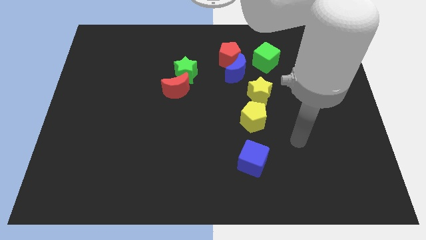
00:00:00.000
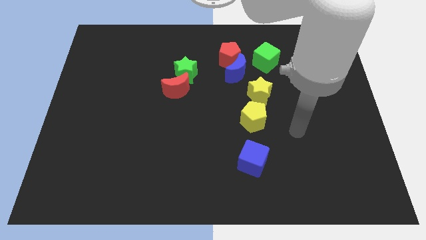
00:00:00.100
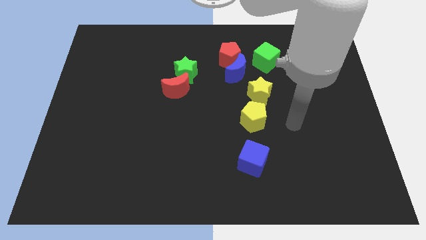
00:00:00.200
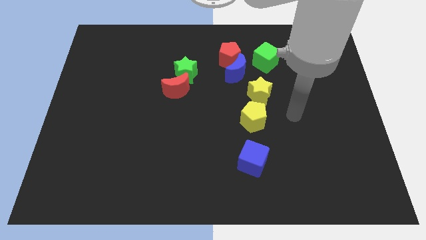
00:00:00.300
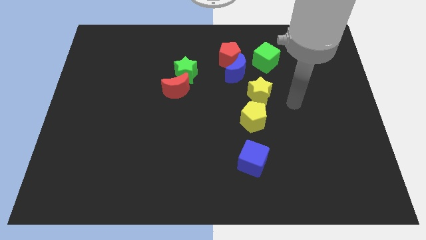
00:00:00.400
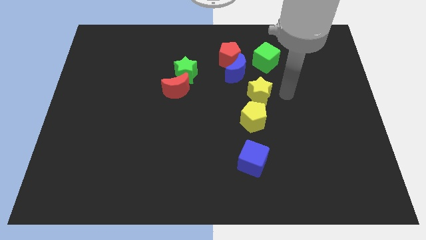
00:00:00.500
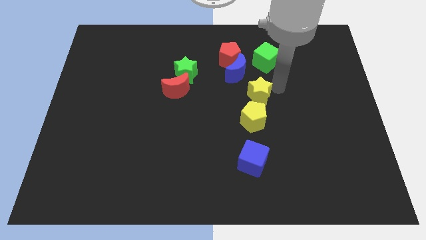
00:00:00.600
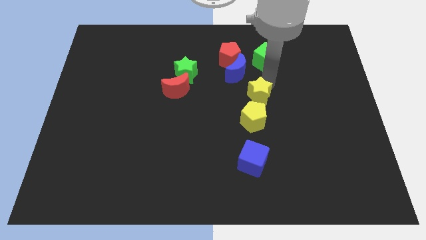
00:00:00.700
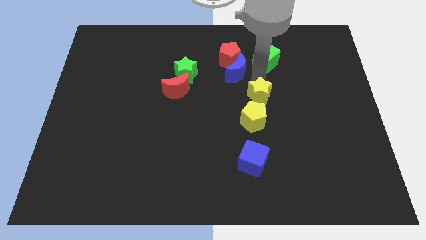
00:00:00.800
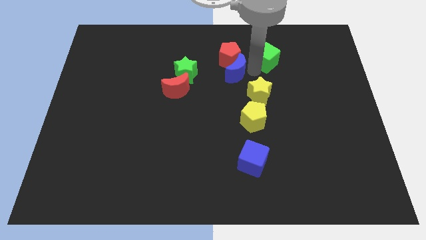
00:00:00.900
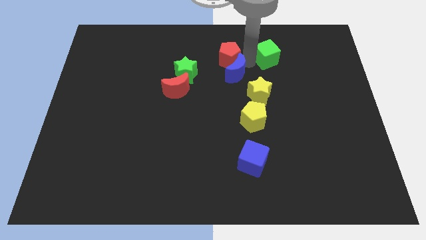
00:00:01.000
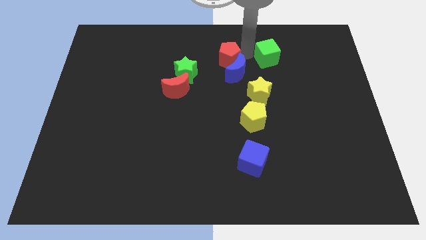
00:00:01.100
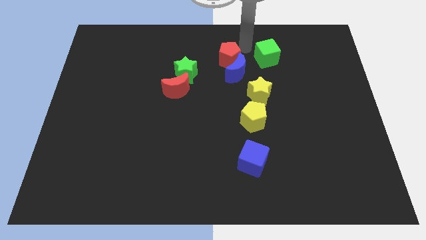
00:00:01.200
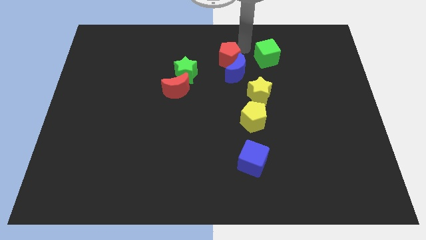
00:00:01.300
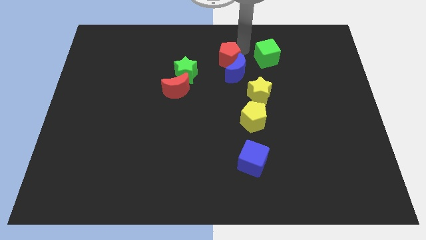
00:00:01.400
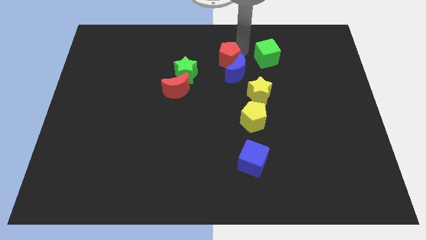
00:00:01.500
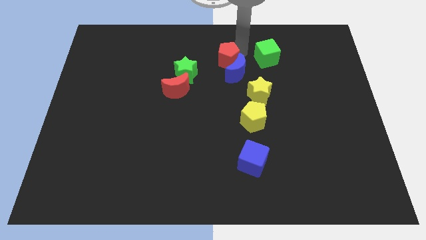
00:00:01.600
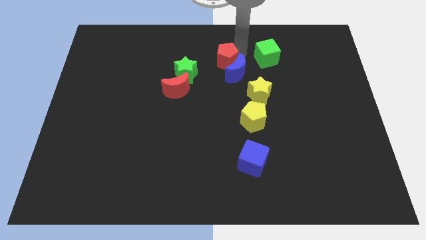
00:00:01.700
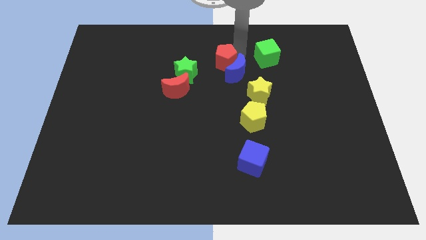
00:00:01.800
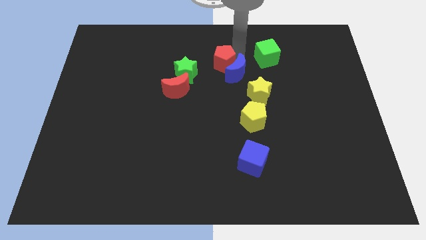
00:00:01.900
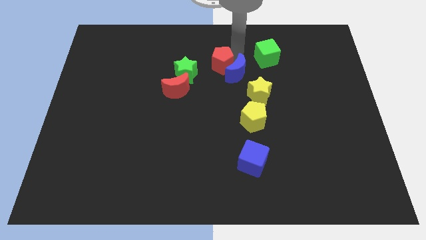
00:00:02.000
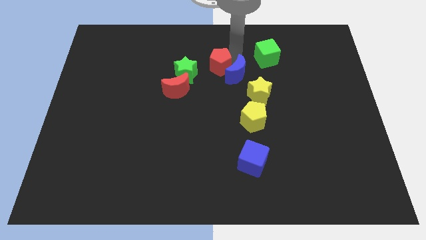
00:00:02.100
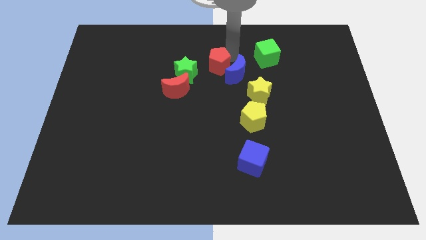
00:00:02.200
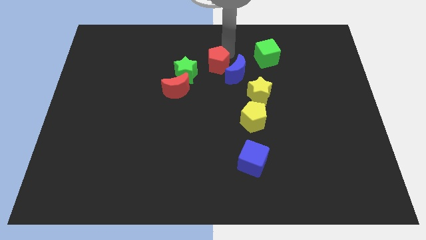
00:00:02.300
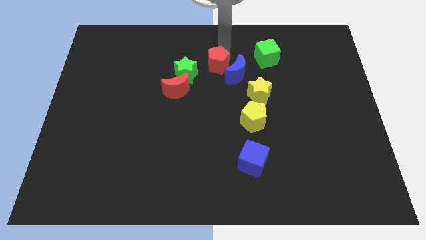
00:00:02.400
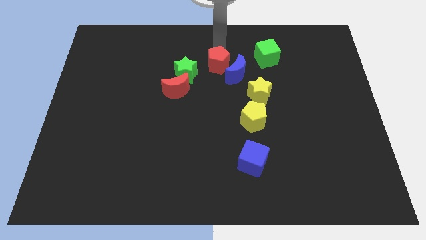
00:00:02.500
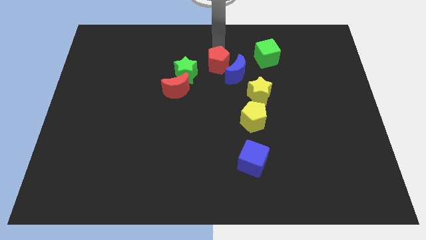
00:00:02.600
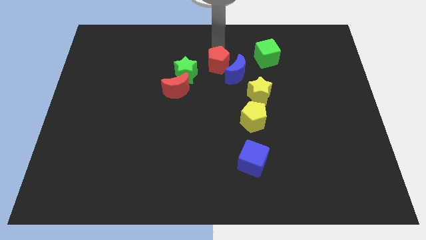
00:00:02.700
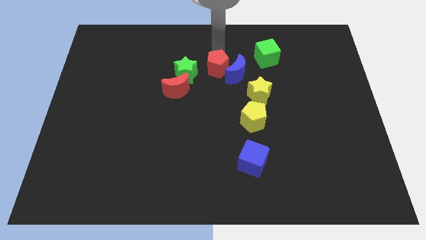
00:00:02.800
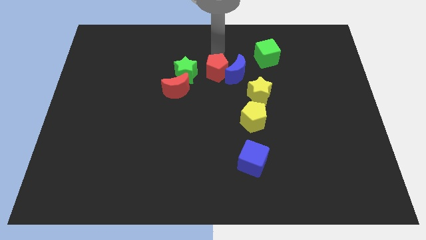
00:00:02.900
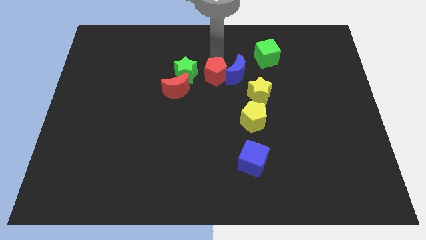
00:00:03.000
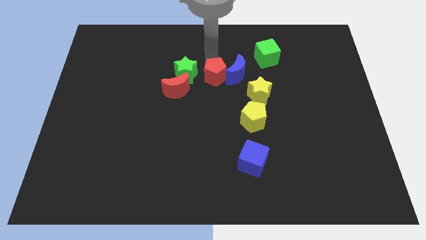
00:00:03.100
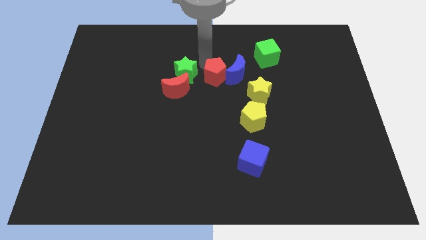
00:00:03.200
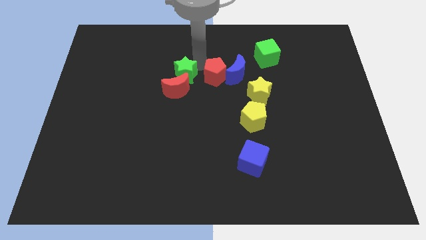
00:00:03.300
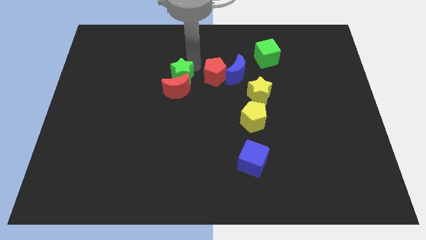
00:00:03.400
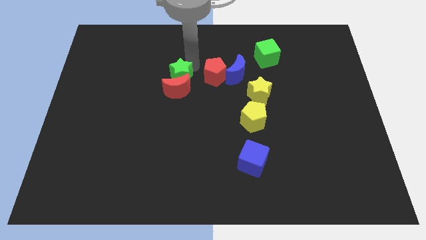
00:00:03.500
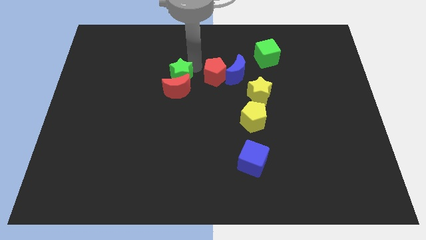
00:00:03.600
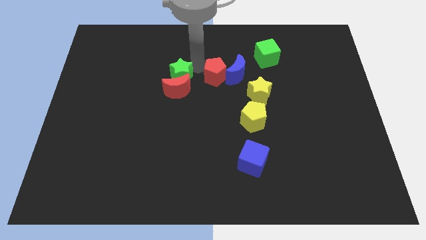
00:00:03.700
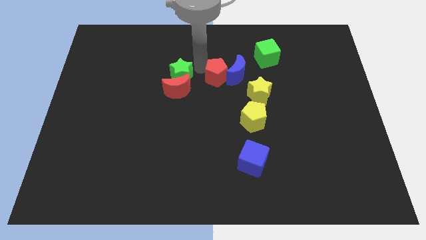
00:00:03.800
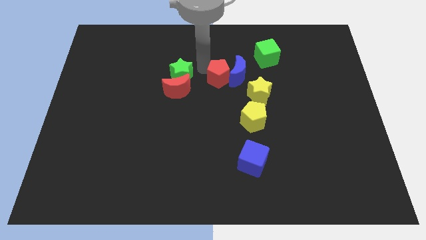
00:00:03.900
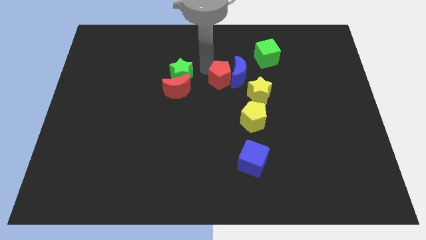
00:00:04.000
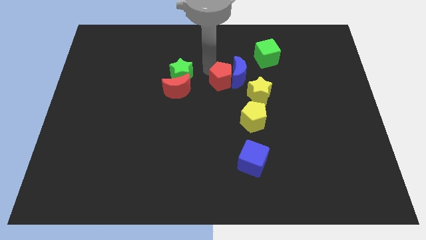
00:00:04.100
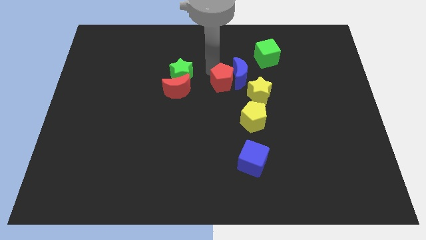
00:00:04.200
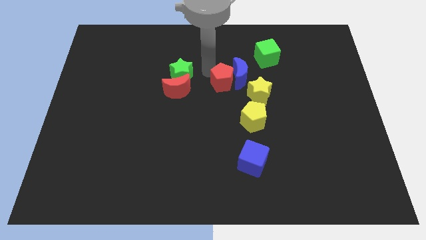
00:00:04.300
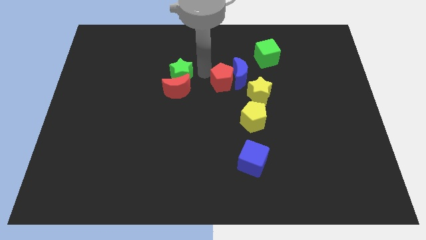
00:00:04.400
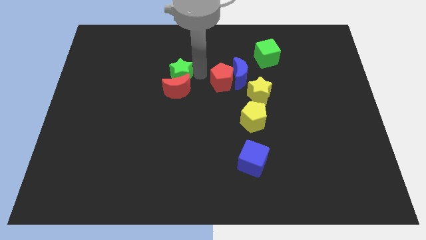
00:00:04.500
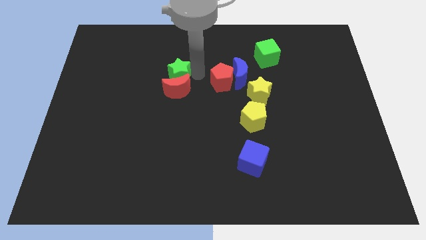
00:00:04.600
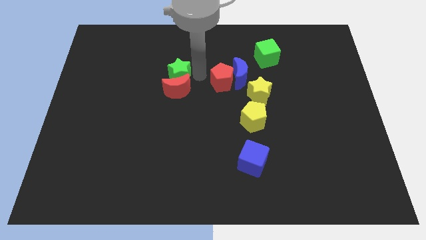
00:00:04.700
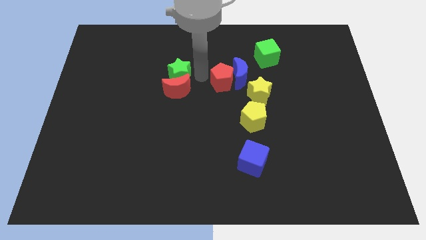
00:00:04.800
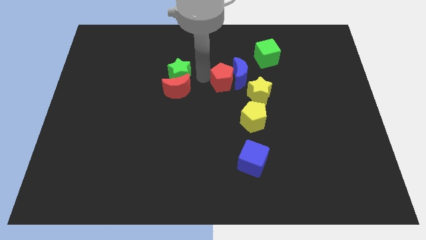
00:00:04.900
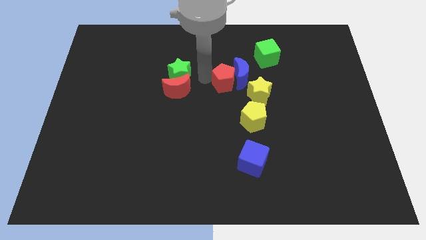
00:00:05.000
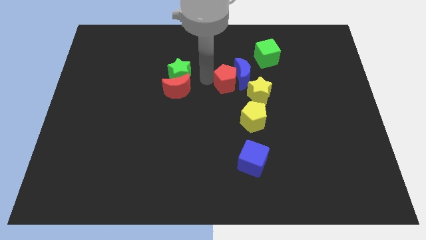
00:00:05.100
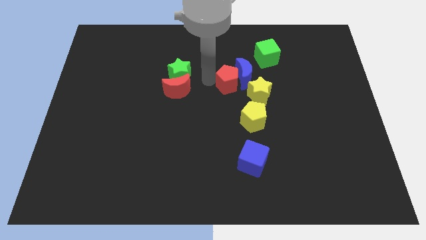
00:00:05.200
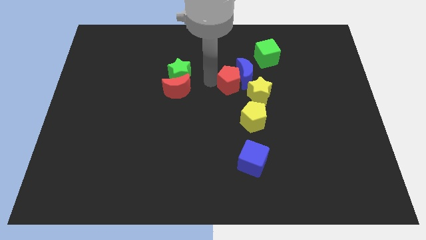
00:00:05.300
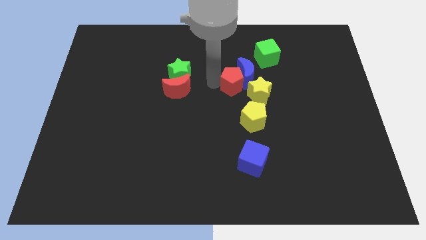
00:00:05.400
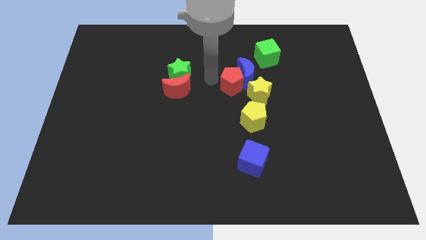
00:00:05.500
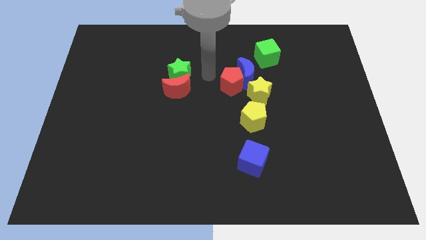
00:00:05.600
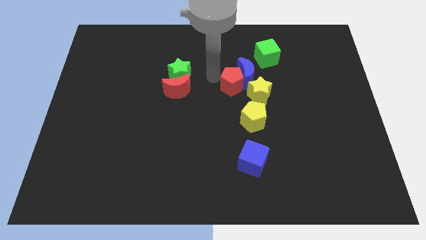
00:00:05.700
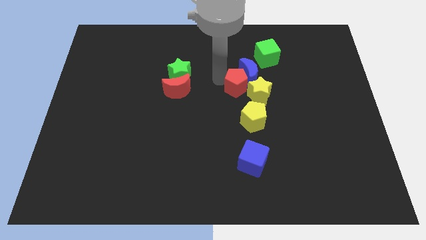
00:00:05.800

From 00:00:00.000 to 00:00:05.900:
move the red pentagon to the yellow star

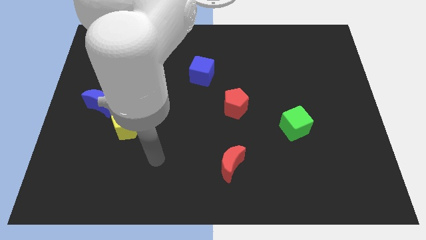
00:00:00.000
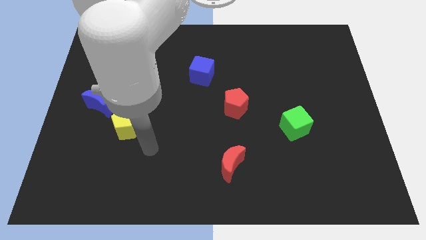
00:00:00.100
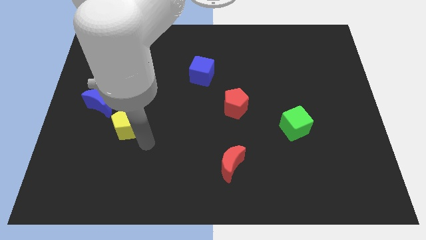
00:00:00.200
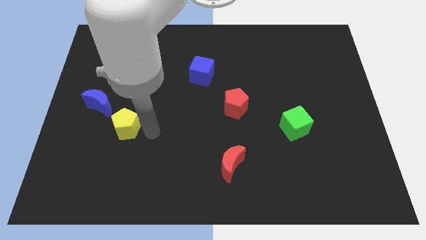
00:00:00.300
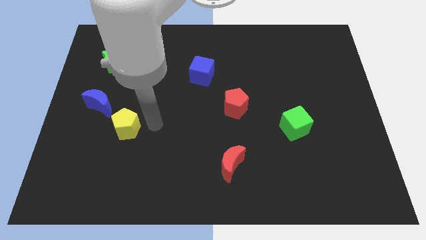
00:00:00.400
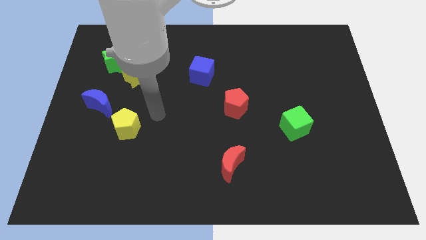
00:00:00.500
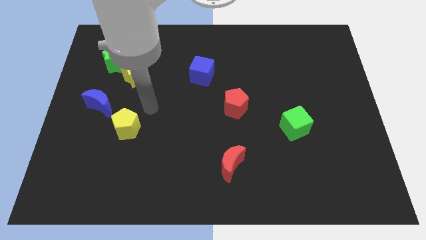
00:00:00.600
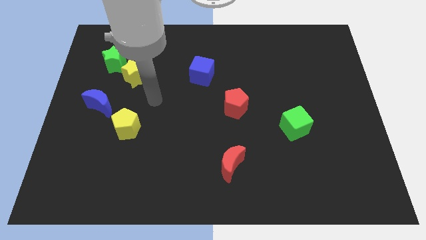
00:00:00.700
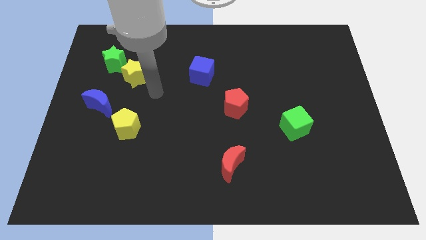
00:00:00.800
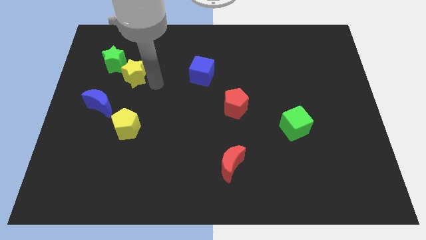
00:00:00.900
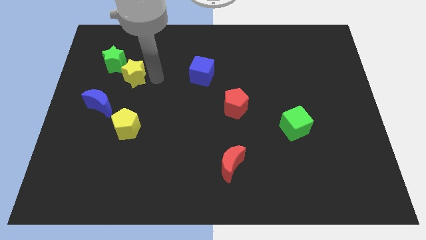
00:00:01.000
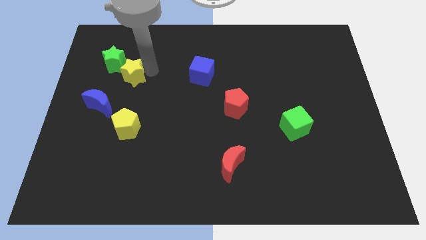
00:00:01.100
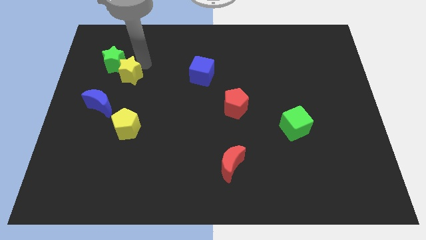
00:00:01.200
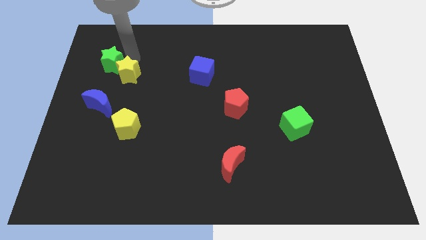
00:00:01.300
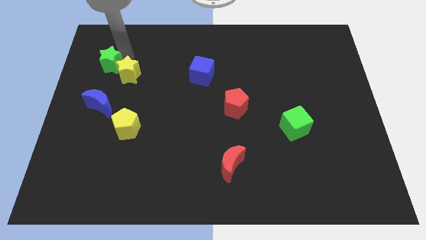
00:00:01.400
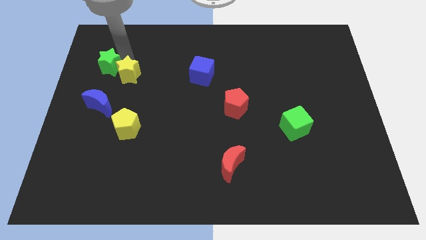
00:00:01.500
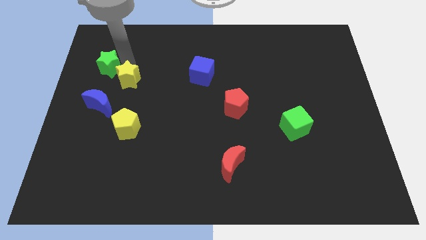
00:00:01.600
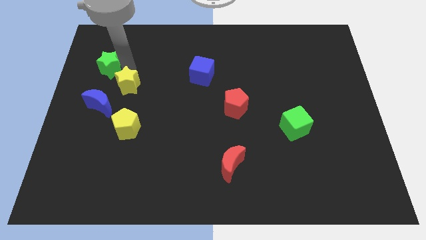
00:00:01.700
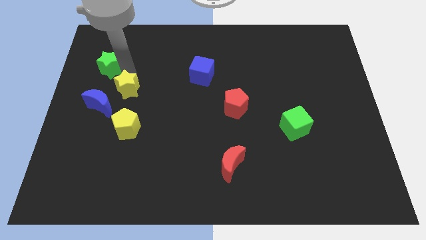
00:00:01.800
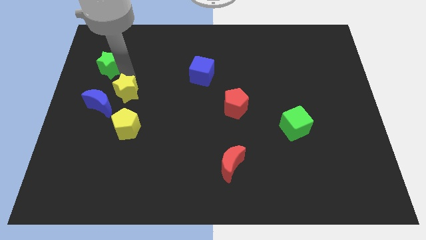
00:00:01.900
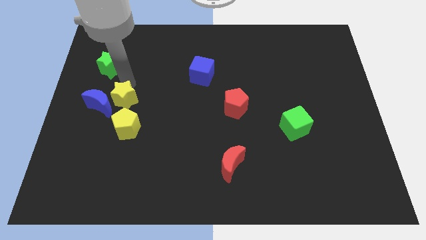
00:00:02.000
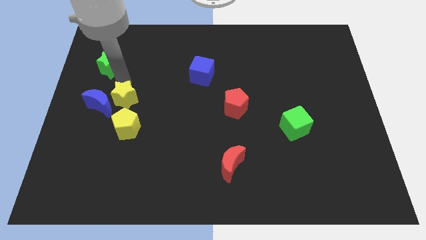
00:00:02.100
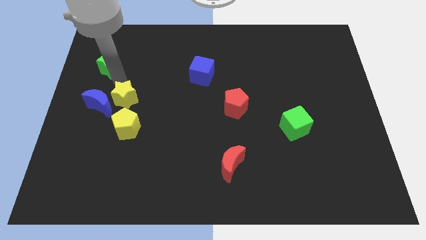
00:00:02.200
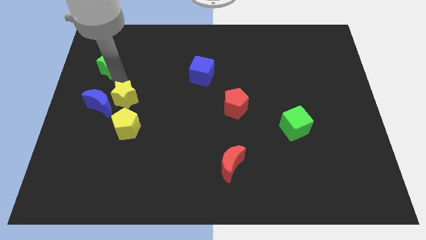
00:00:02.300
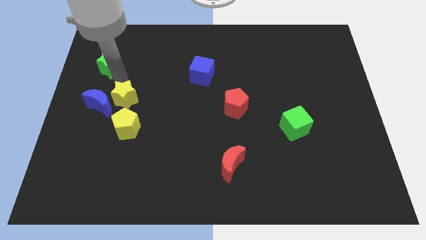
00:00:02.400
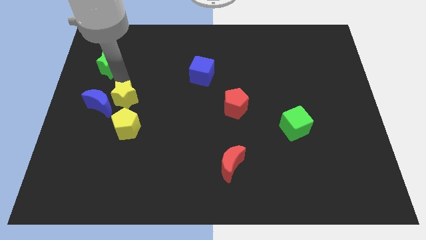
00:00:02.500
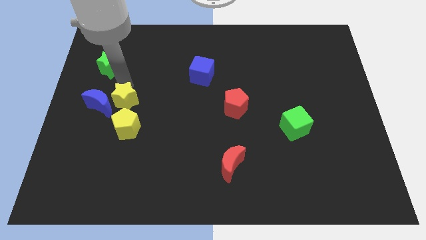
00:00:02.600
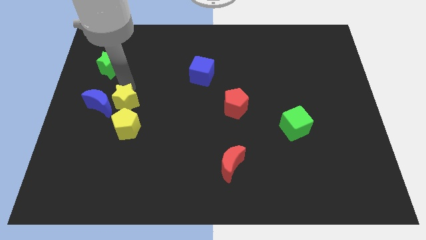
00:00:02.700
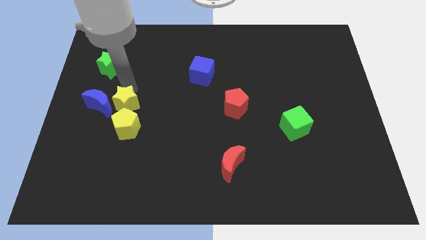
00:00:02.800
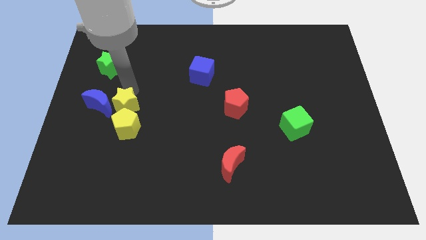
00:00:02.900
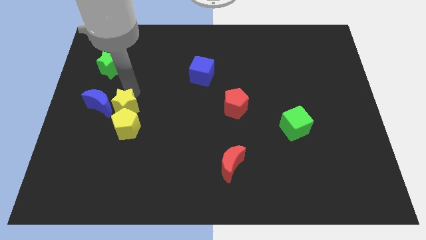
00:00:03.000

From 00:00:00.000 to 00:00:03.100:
slide the yellow star to the yellow pentagon
